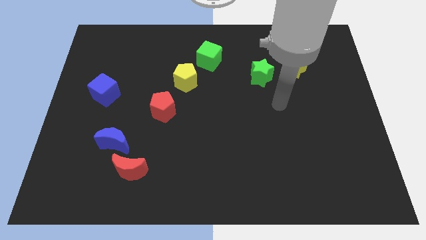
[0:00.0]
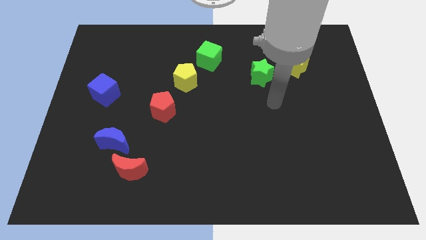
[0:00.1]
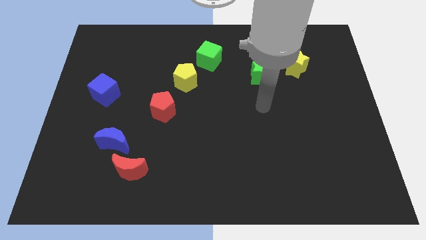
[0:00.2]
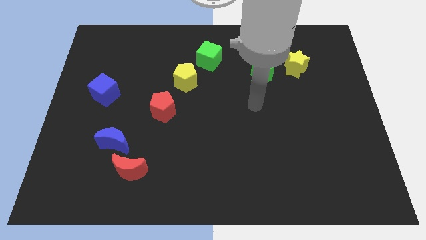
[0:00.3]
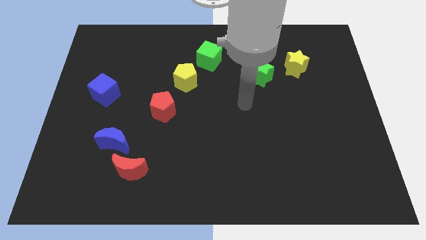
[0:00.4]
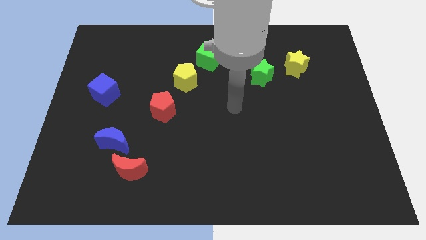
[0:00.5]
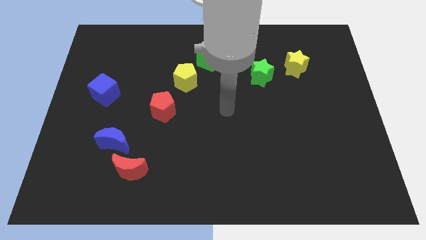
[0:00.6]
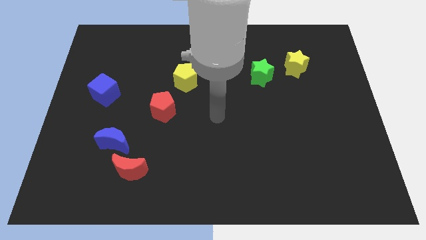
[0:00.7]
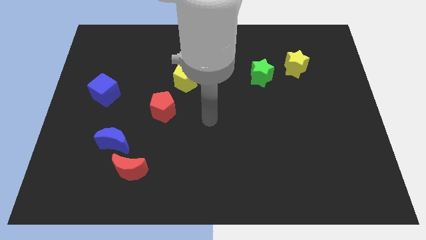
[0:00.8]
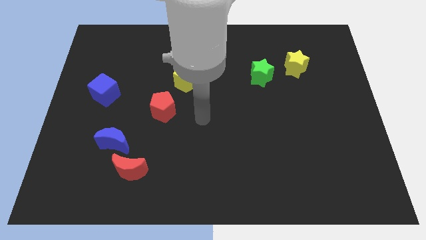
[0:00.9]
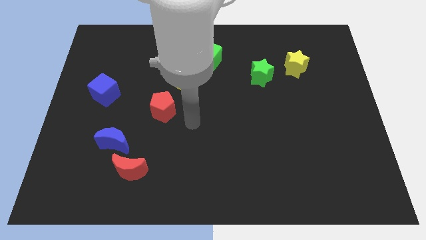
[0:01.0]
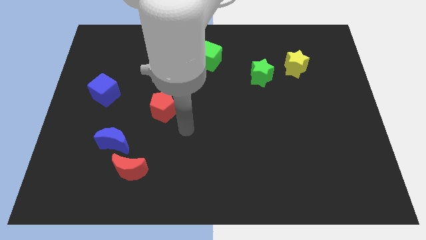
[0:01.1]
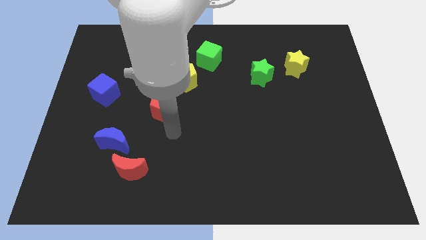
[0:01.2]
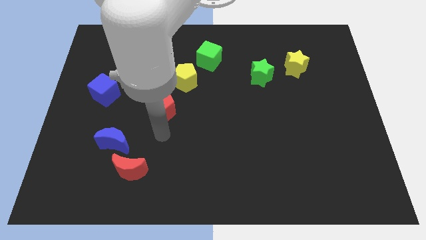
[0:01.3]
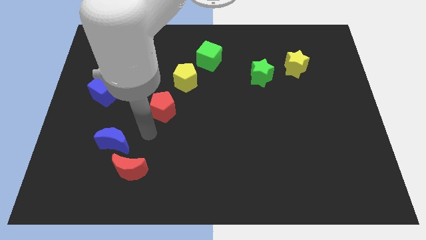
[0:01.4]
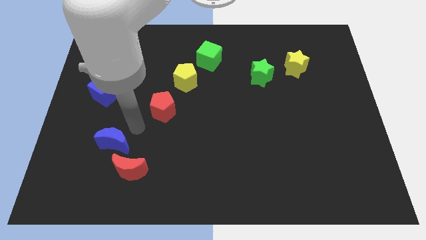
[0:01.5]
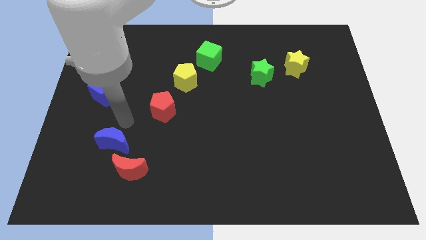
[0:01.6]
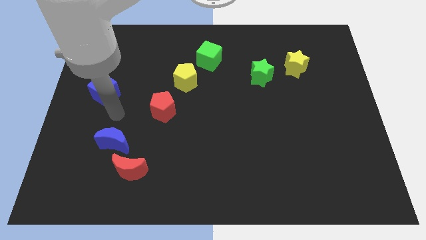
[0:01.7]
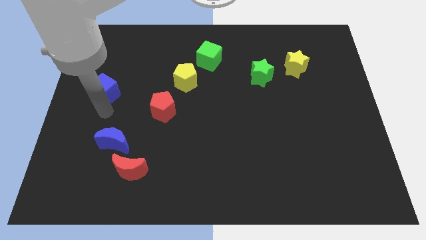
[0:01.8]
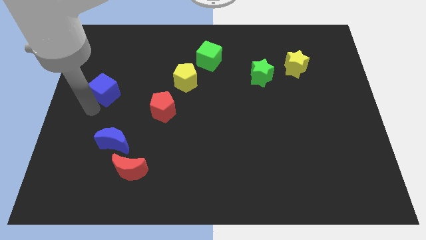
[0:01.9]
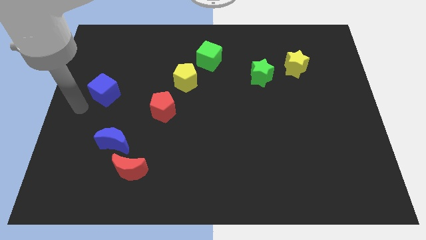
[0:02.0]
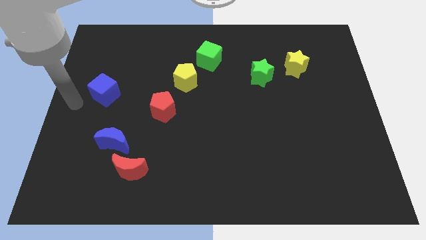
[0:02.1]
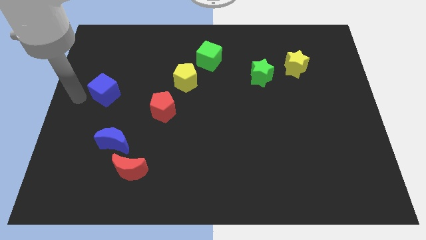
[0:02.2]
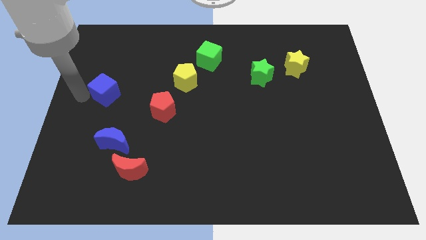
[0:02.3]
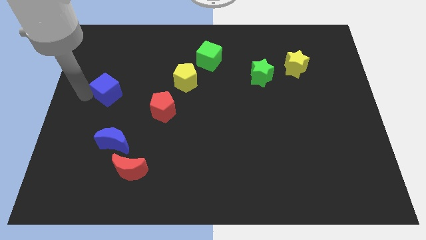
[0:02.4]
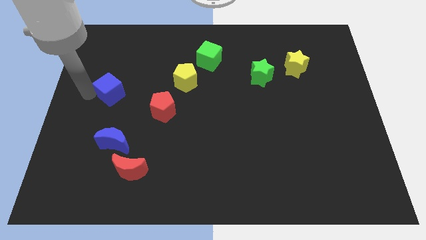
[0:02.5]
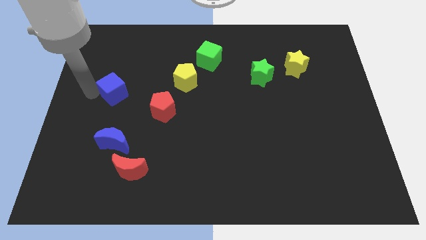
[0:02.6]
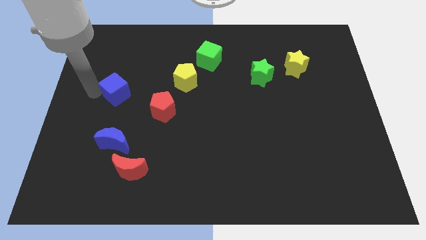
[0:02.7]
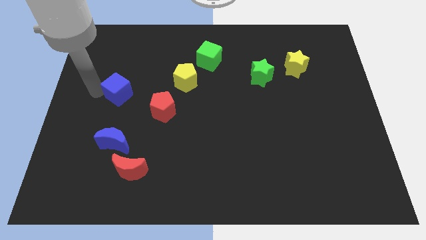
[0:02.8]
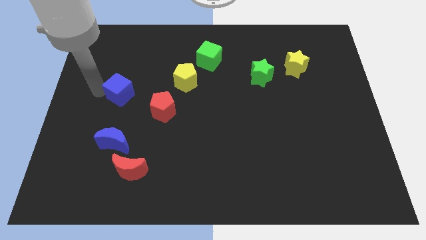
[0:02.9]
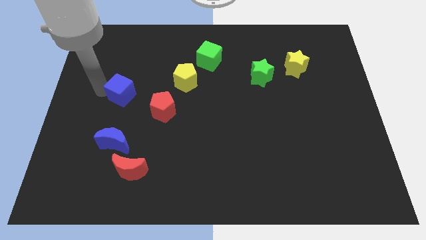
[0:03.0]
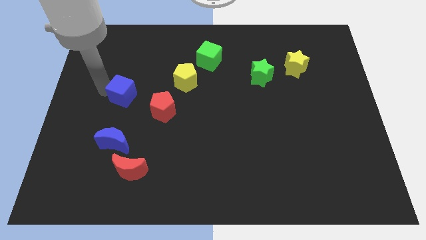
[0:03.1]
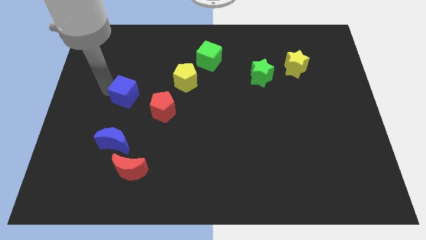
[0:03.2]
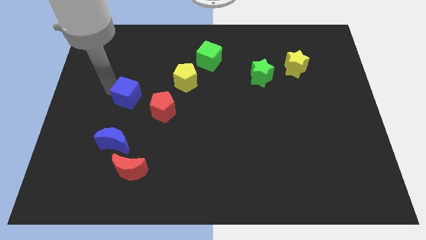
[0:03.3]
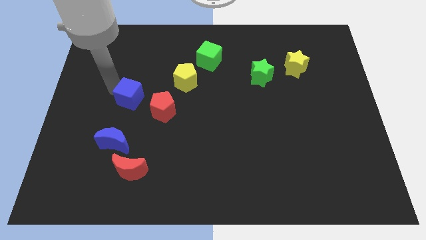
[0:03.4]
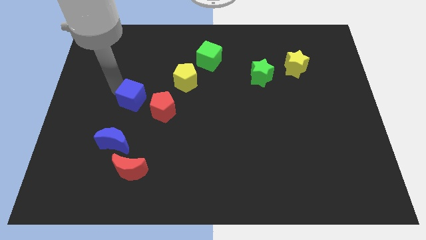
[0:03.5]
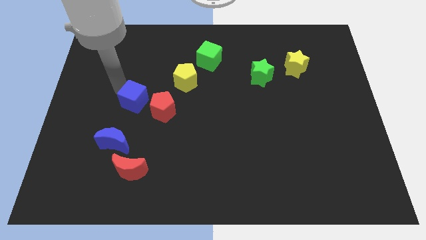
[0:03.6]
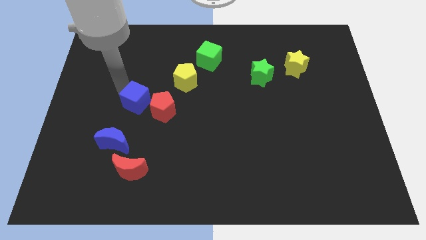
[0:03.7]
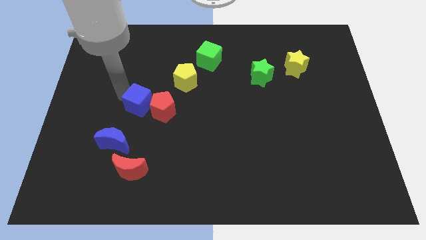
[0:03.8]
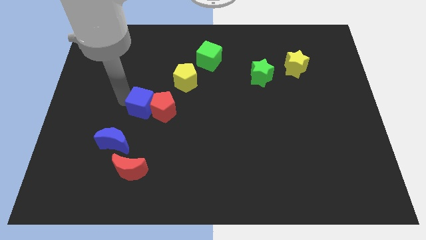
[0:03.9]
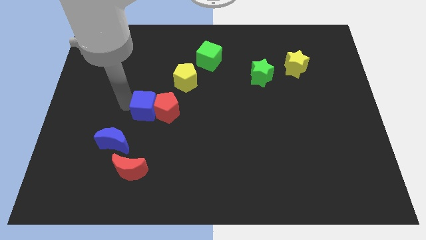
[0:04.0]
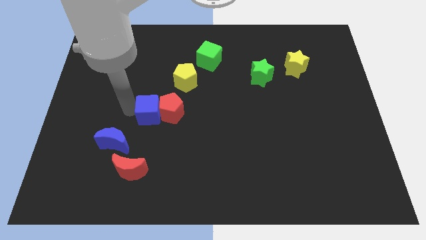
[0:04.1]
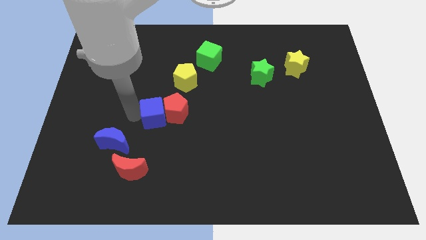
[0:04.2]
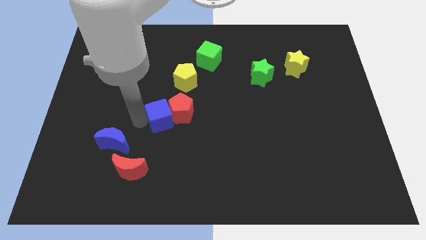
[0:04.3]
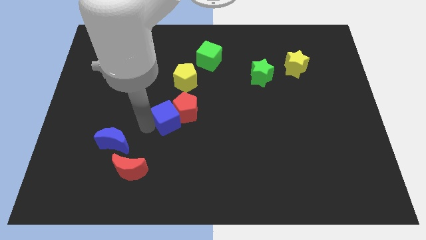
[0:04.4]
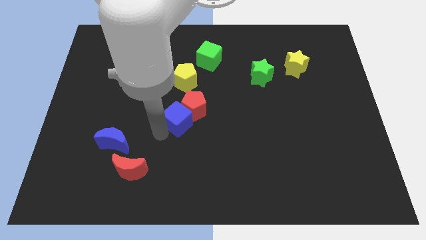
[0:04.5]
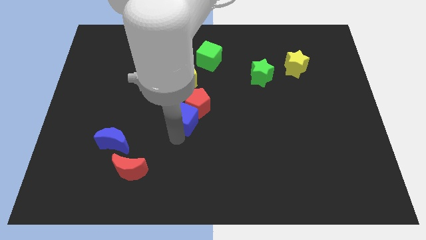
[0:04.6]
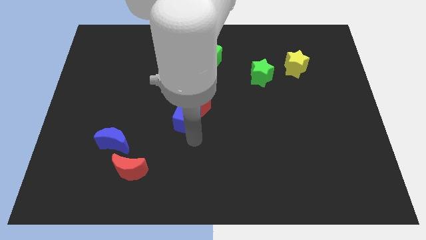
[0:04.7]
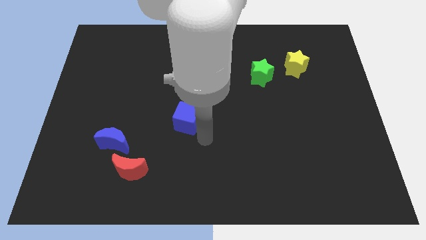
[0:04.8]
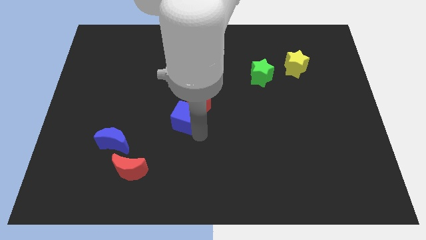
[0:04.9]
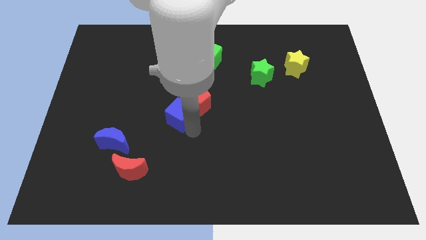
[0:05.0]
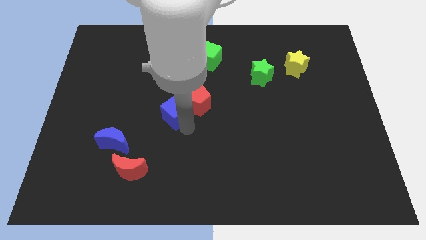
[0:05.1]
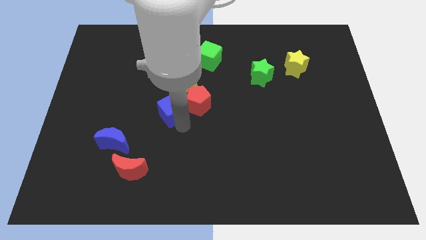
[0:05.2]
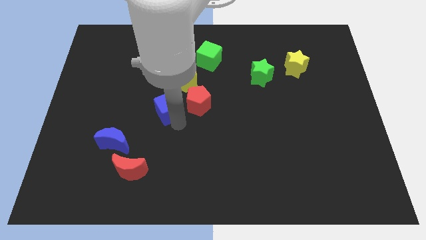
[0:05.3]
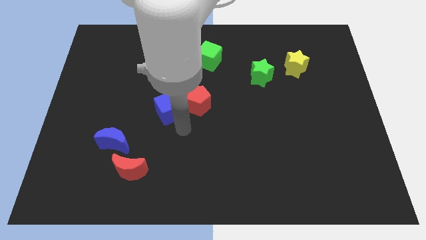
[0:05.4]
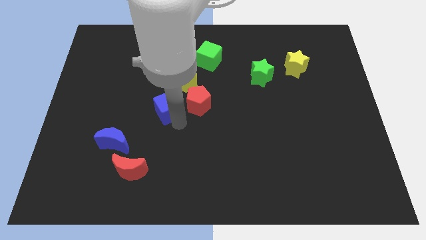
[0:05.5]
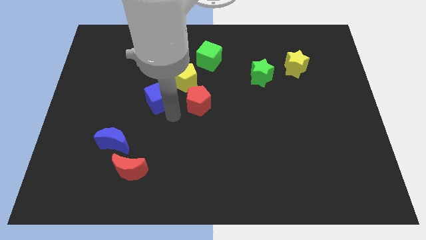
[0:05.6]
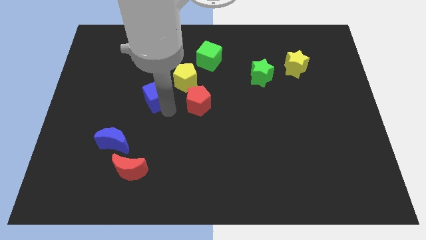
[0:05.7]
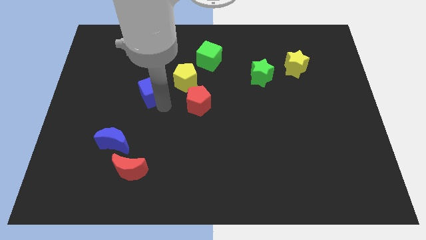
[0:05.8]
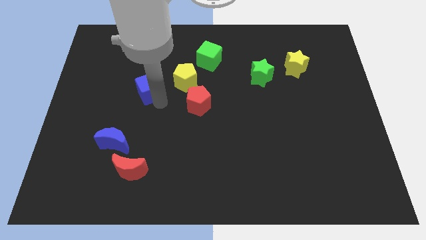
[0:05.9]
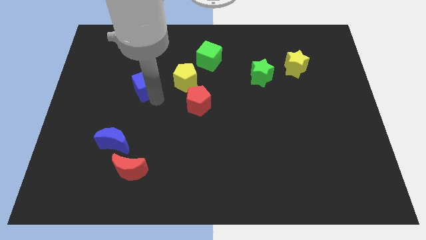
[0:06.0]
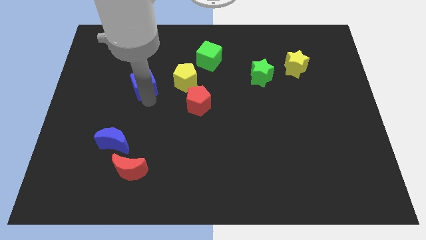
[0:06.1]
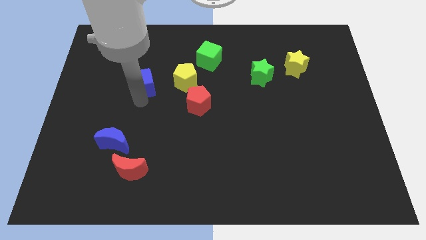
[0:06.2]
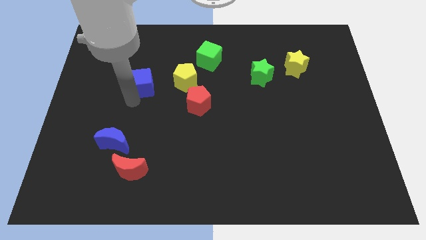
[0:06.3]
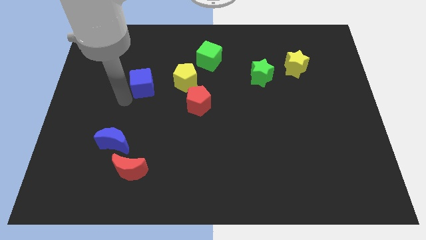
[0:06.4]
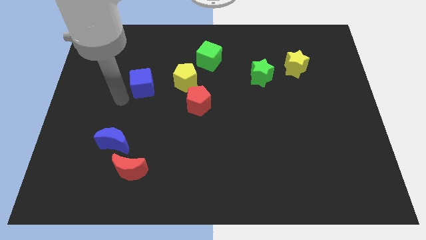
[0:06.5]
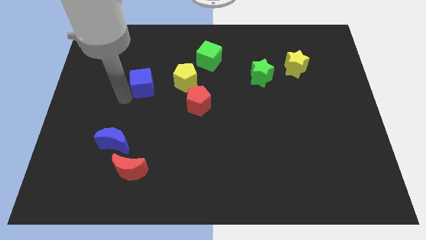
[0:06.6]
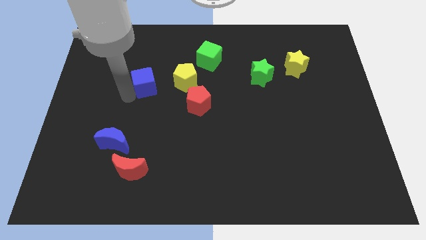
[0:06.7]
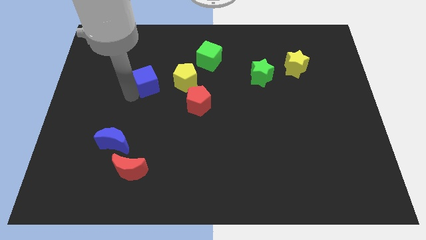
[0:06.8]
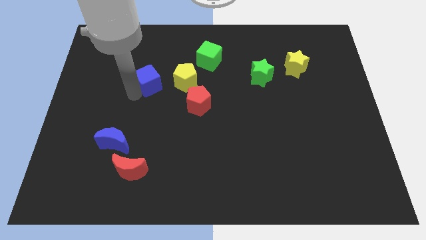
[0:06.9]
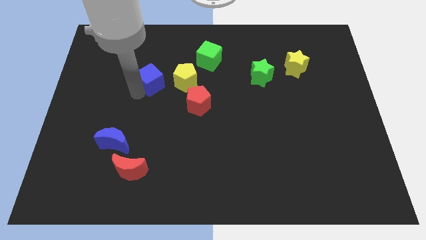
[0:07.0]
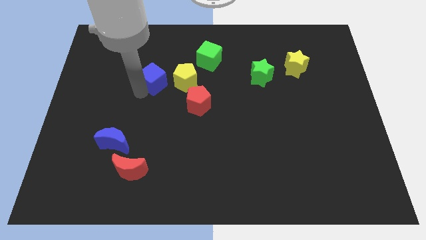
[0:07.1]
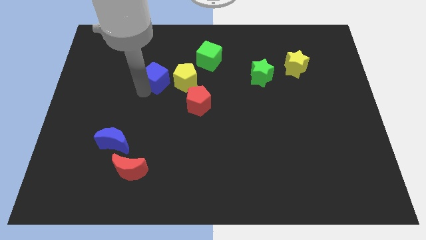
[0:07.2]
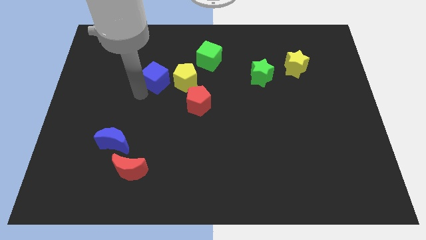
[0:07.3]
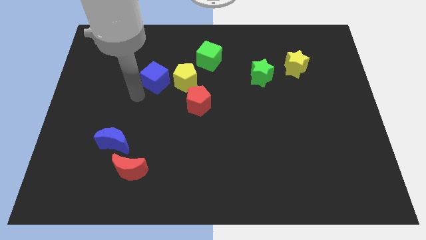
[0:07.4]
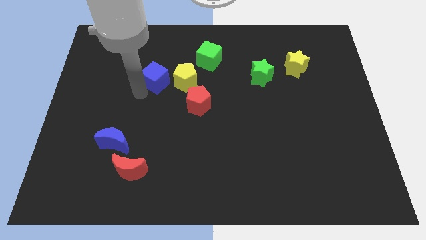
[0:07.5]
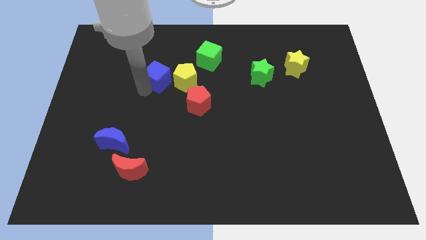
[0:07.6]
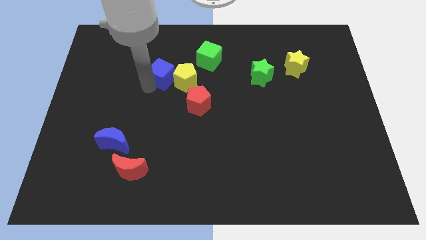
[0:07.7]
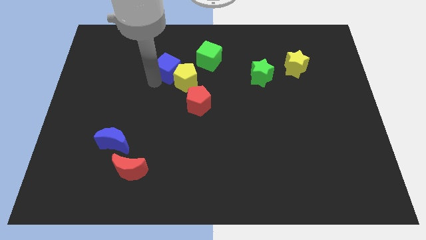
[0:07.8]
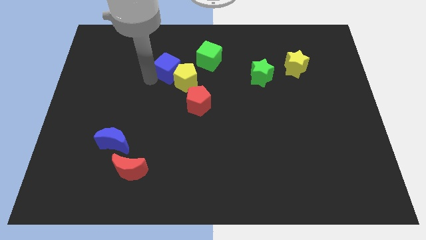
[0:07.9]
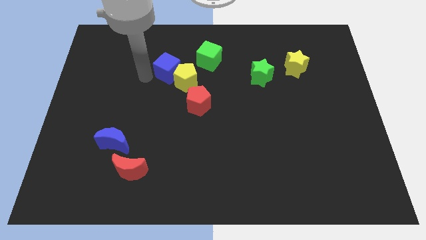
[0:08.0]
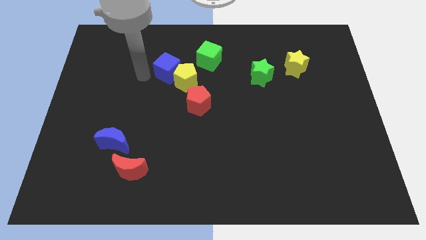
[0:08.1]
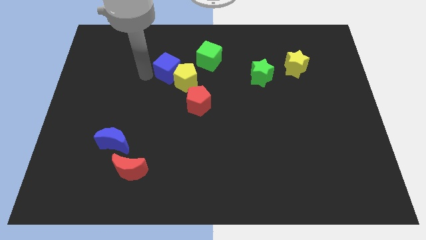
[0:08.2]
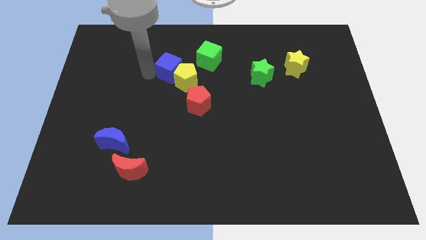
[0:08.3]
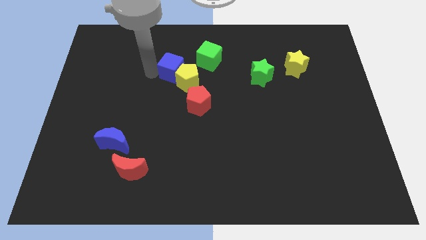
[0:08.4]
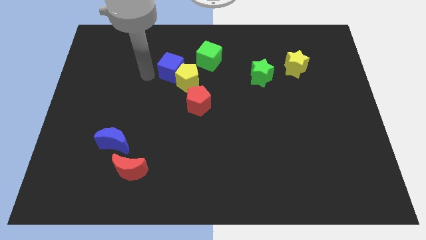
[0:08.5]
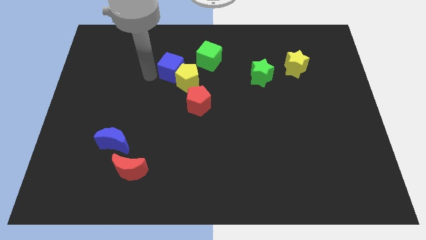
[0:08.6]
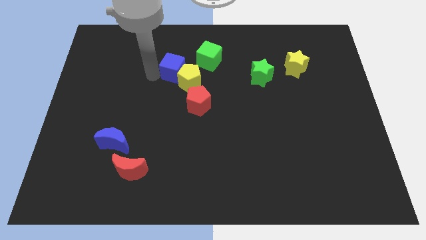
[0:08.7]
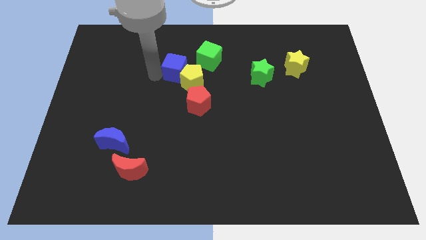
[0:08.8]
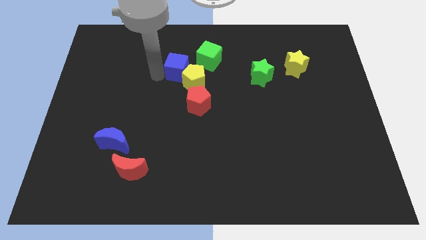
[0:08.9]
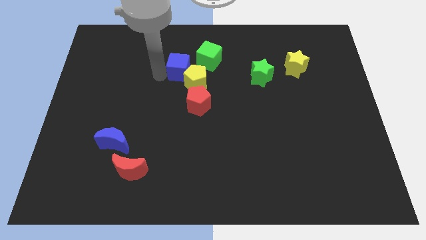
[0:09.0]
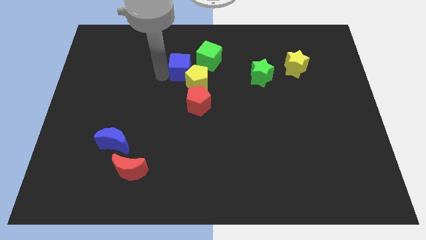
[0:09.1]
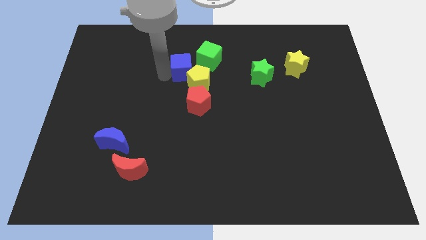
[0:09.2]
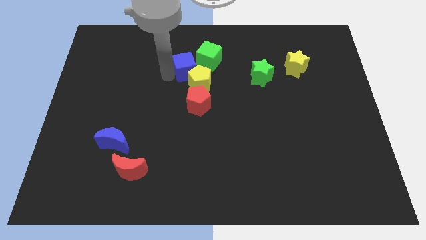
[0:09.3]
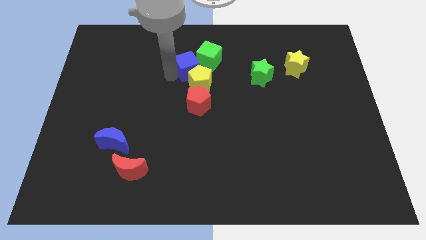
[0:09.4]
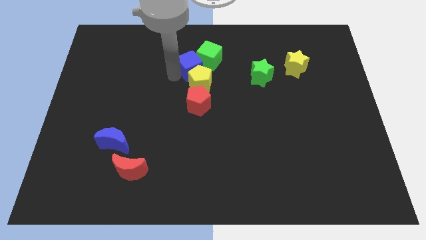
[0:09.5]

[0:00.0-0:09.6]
slide the blue cube close to the green cube
